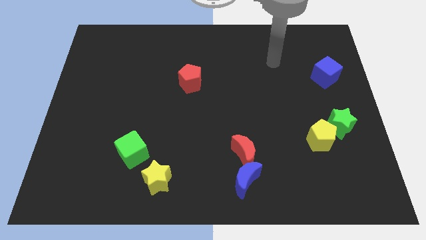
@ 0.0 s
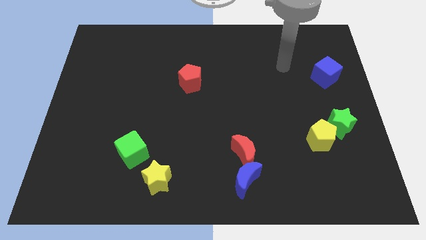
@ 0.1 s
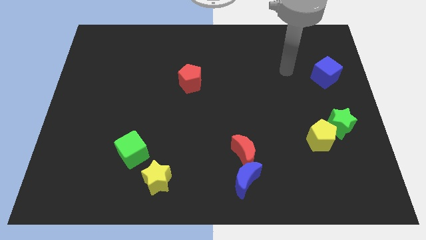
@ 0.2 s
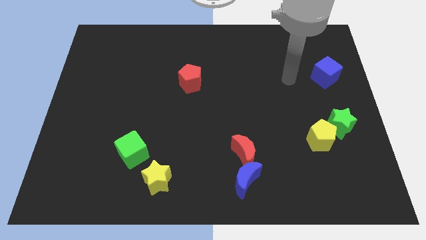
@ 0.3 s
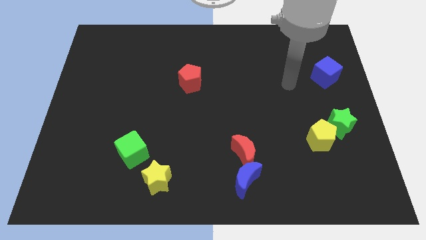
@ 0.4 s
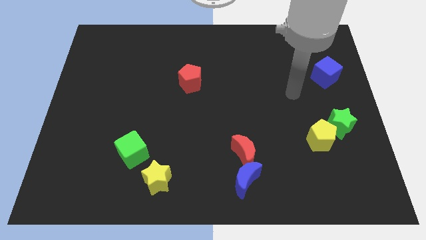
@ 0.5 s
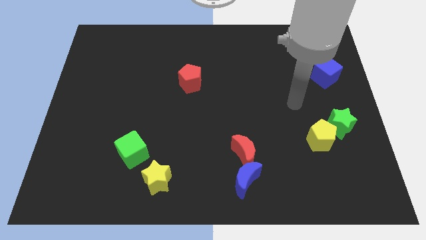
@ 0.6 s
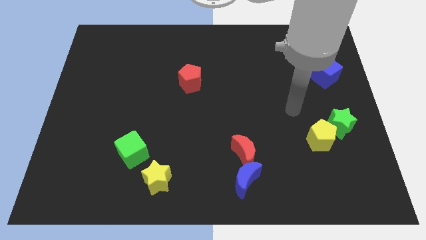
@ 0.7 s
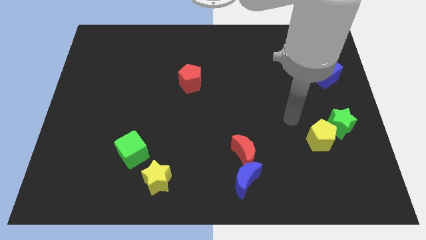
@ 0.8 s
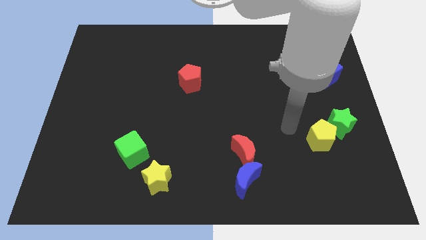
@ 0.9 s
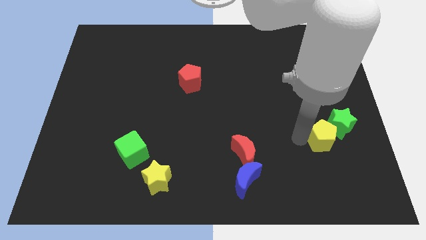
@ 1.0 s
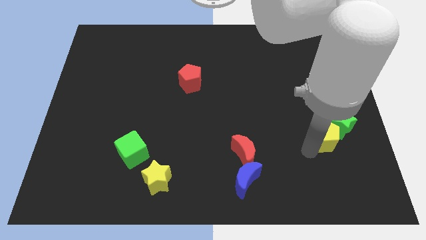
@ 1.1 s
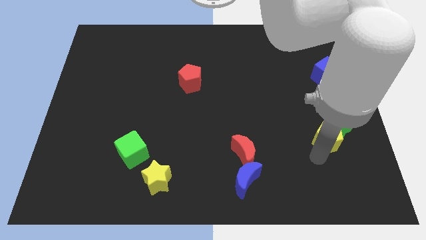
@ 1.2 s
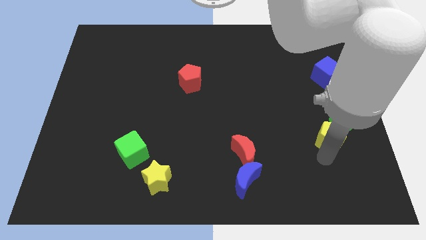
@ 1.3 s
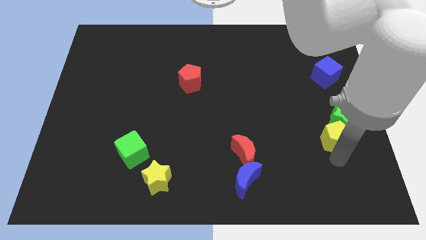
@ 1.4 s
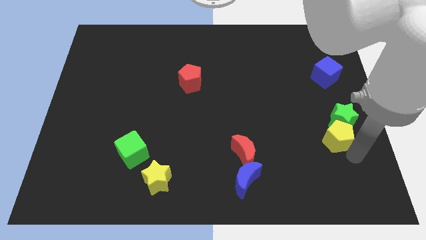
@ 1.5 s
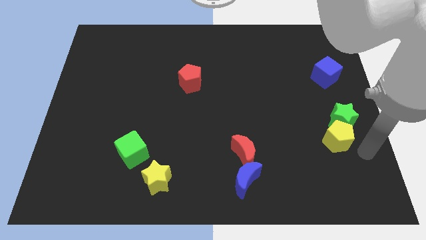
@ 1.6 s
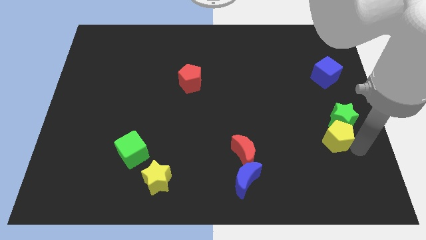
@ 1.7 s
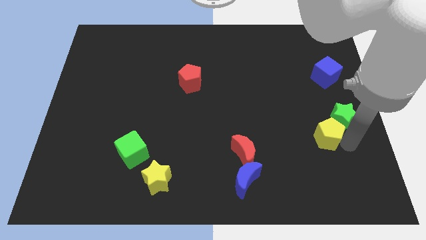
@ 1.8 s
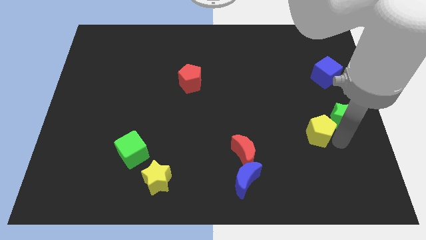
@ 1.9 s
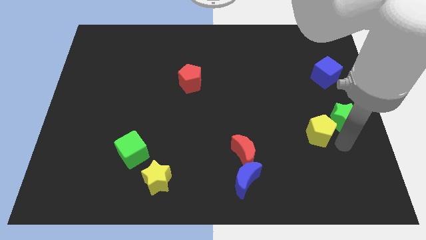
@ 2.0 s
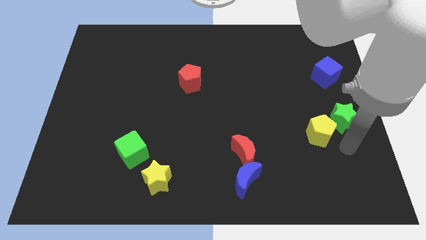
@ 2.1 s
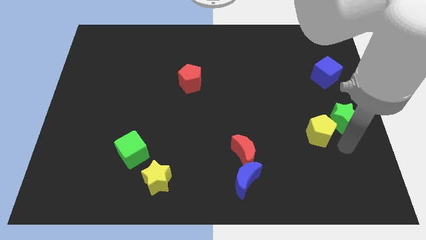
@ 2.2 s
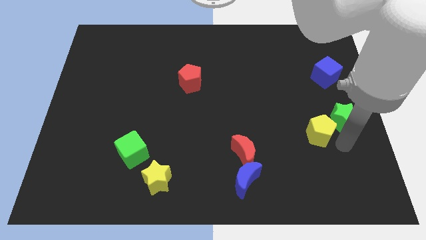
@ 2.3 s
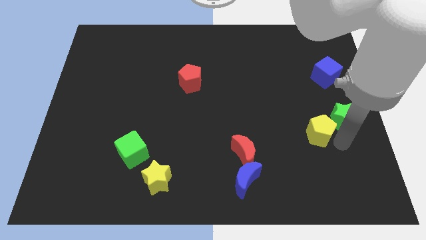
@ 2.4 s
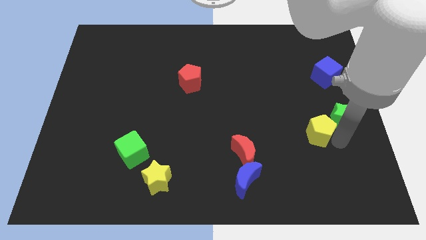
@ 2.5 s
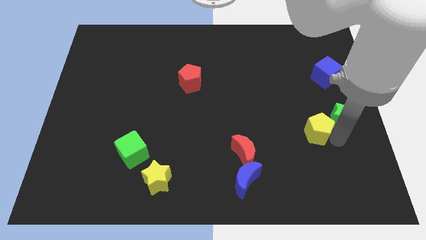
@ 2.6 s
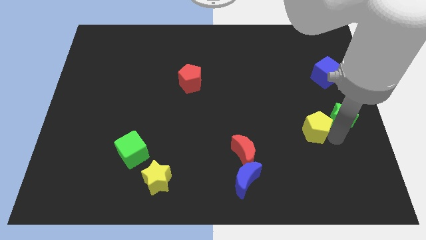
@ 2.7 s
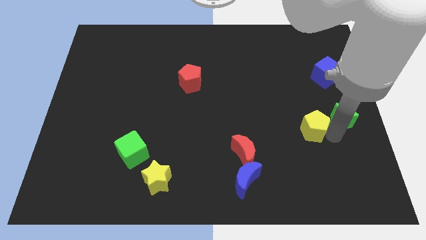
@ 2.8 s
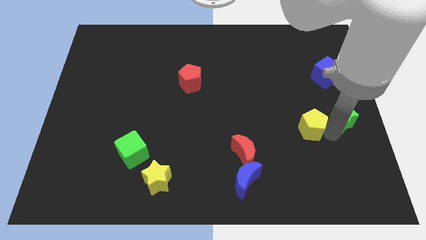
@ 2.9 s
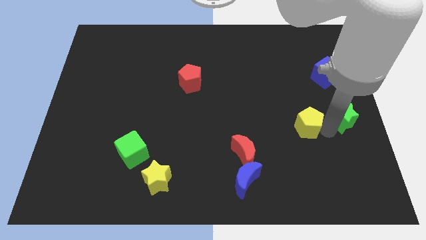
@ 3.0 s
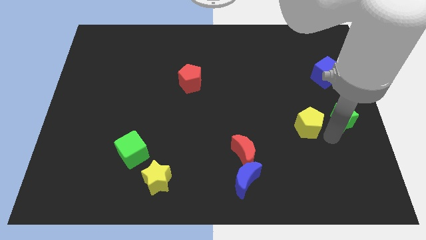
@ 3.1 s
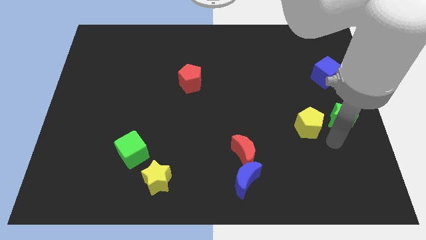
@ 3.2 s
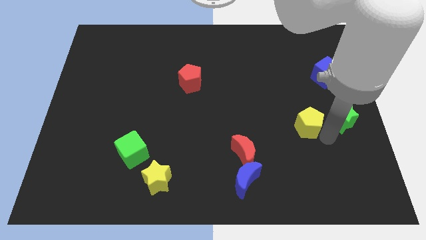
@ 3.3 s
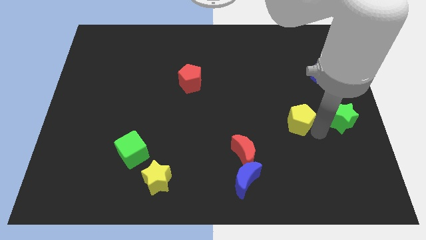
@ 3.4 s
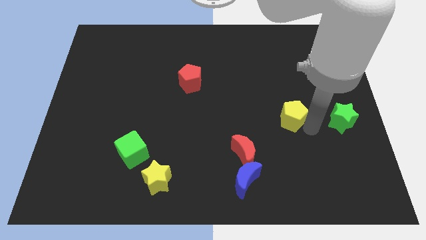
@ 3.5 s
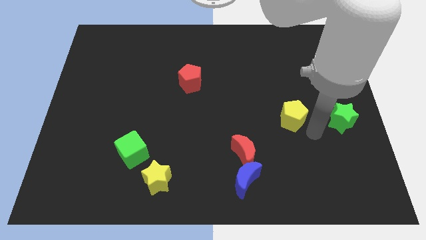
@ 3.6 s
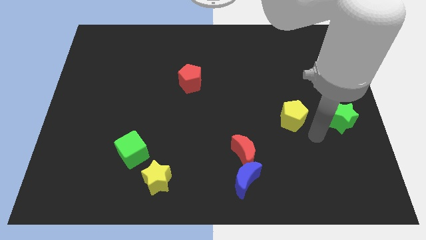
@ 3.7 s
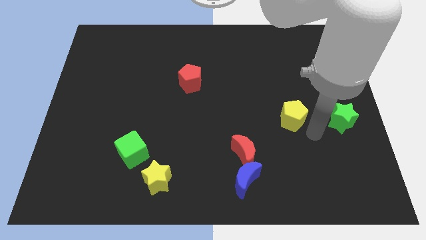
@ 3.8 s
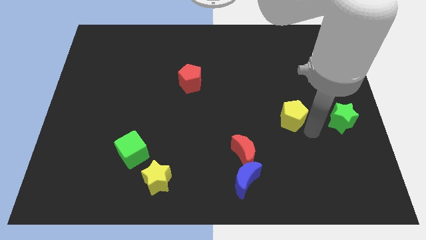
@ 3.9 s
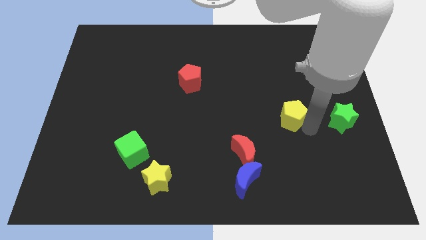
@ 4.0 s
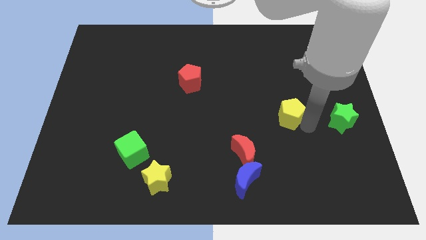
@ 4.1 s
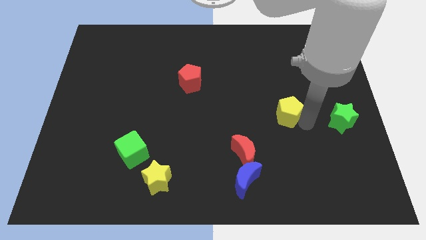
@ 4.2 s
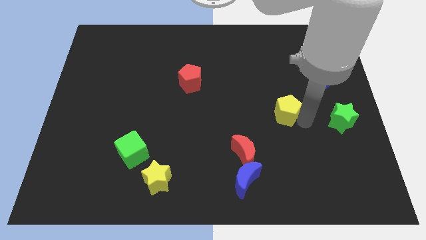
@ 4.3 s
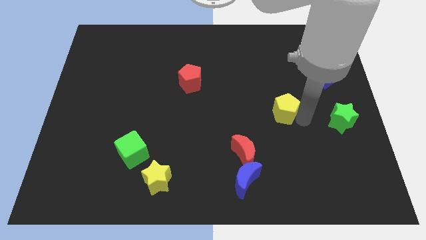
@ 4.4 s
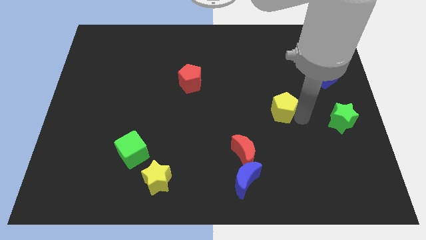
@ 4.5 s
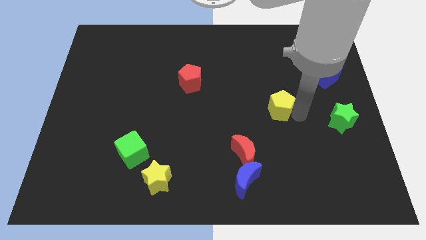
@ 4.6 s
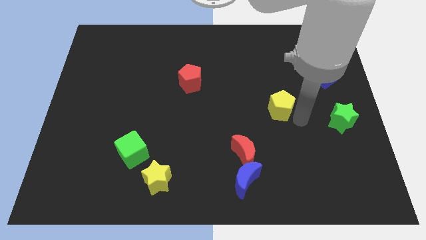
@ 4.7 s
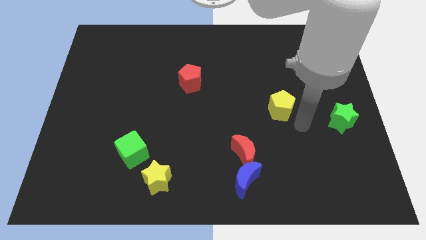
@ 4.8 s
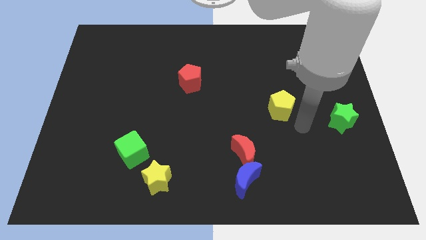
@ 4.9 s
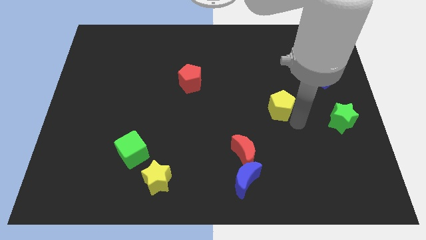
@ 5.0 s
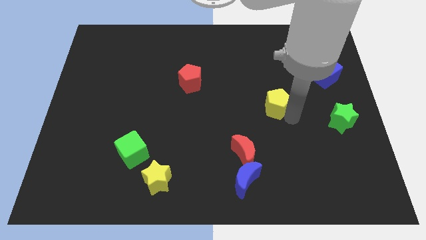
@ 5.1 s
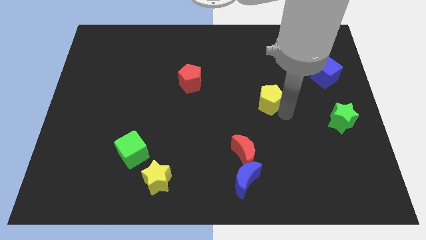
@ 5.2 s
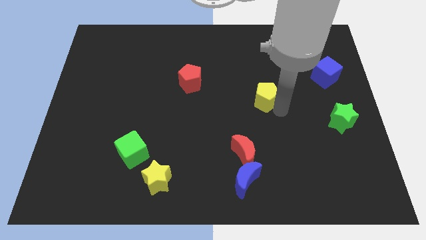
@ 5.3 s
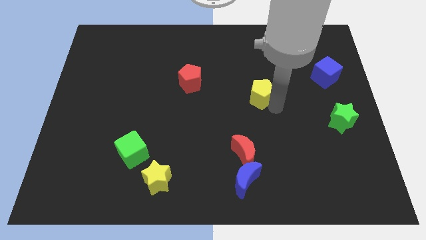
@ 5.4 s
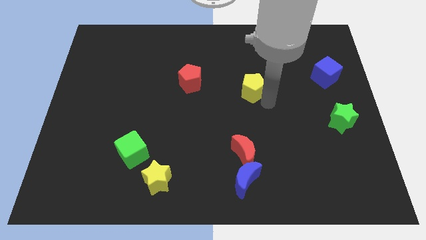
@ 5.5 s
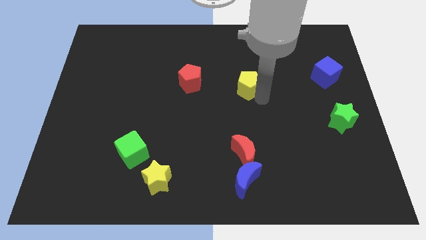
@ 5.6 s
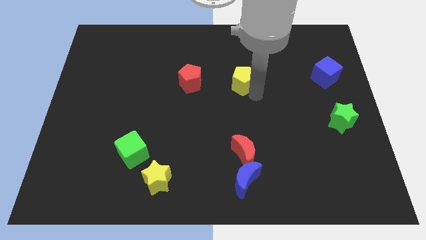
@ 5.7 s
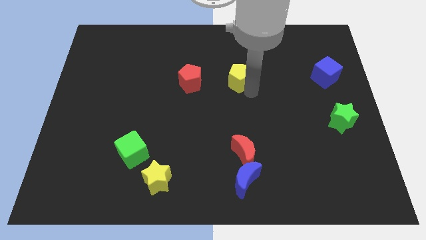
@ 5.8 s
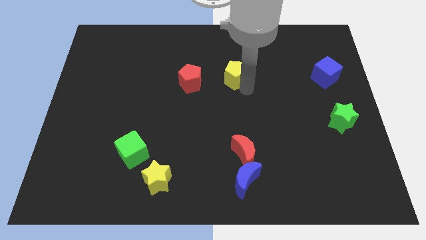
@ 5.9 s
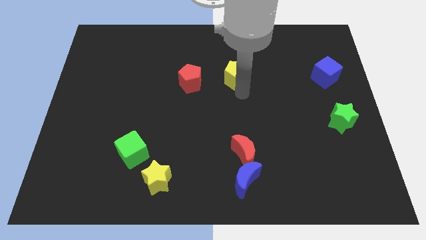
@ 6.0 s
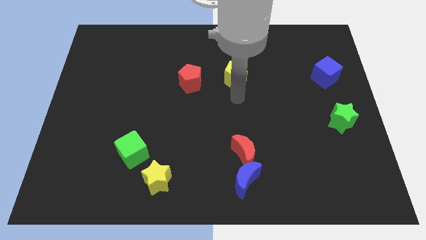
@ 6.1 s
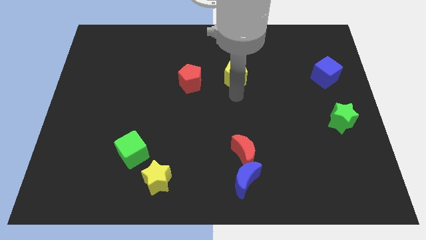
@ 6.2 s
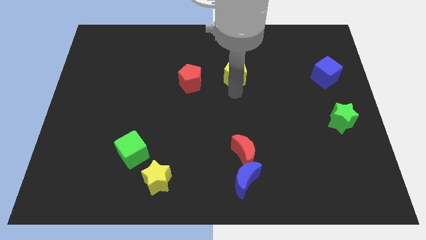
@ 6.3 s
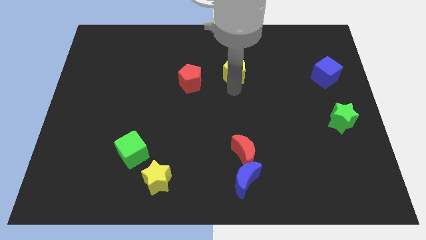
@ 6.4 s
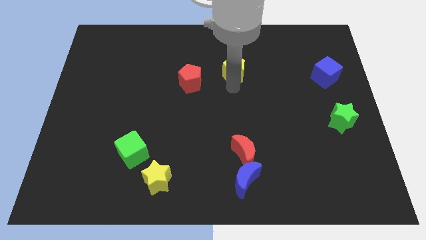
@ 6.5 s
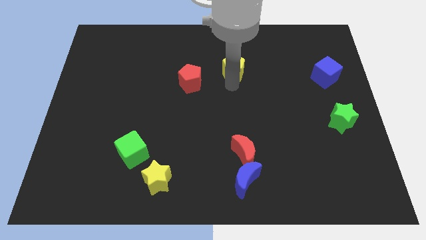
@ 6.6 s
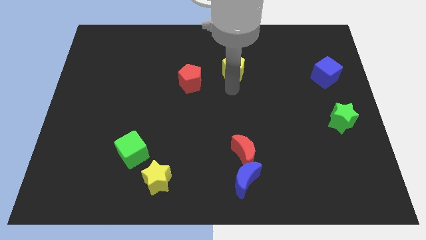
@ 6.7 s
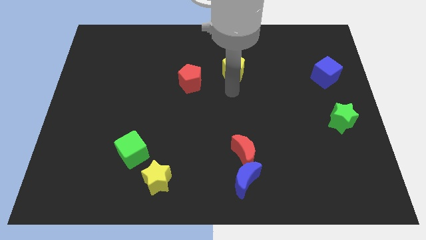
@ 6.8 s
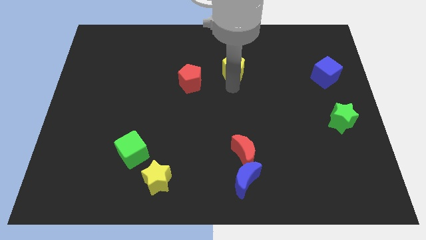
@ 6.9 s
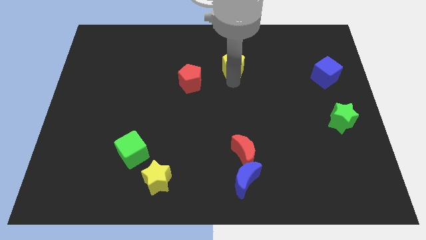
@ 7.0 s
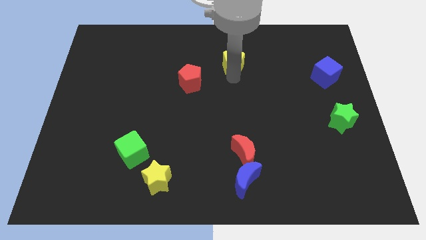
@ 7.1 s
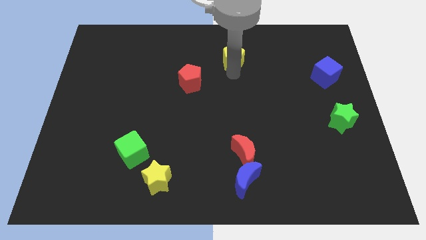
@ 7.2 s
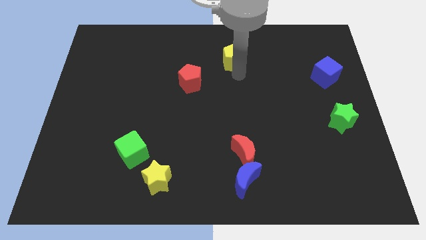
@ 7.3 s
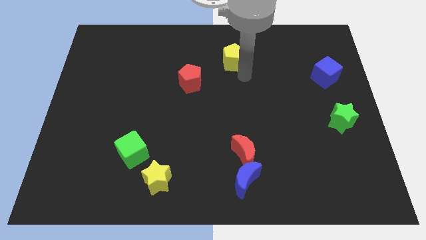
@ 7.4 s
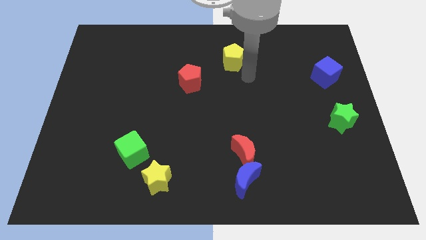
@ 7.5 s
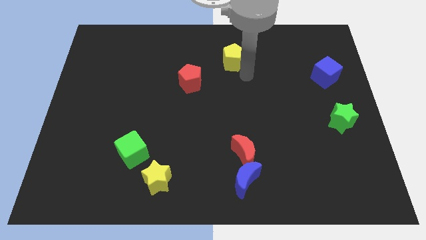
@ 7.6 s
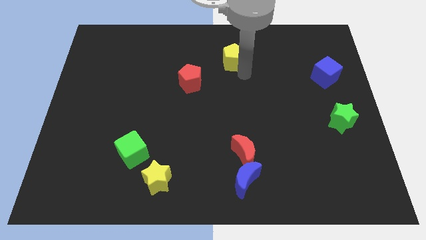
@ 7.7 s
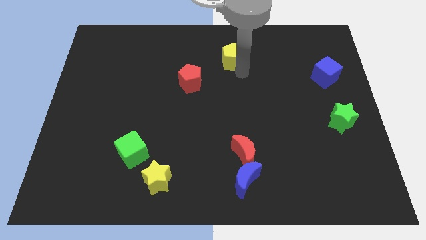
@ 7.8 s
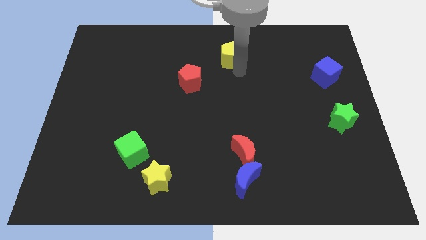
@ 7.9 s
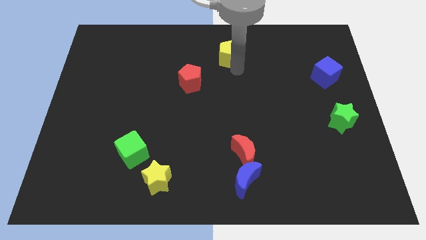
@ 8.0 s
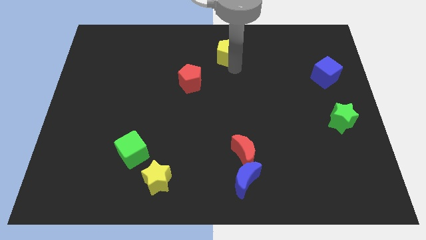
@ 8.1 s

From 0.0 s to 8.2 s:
push the yellow pentagon to the top
